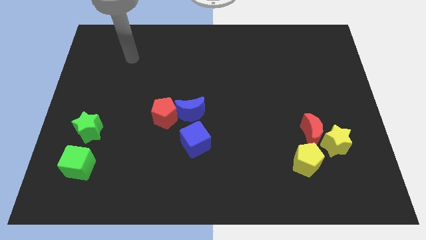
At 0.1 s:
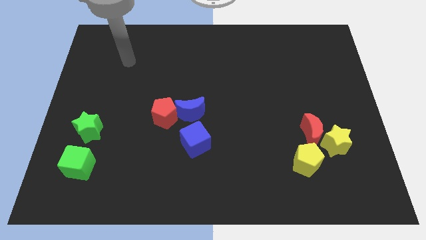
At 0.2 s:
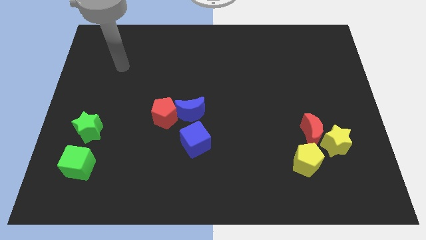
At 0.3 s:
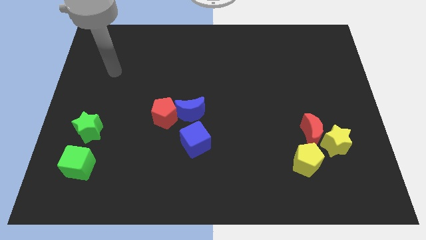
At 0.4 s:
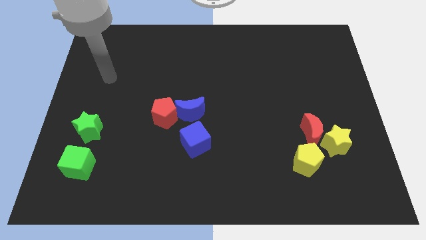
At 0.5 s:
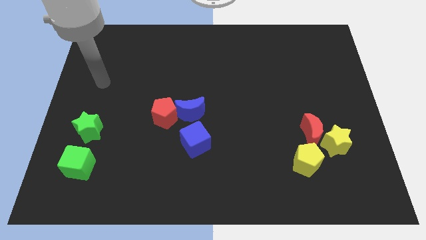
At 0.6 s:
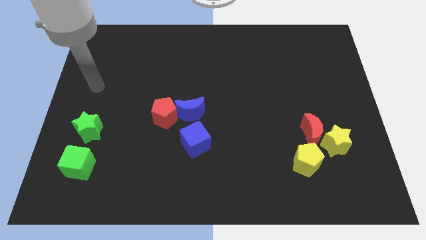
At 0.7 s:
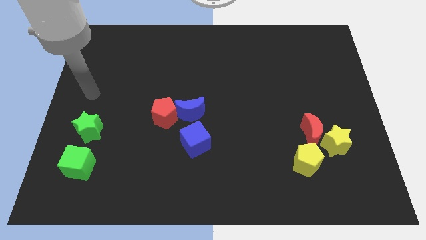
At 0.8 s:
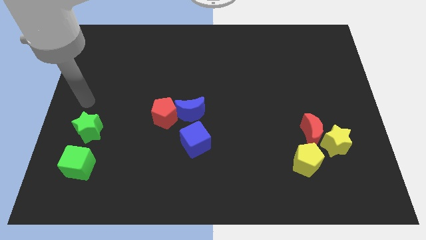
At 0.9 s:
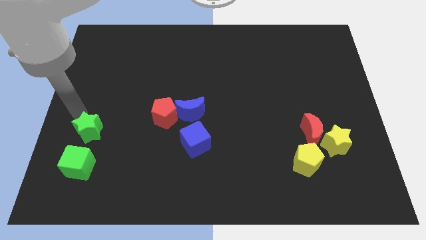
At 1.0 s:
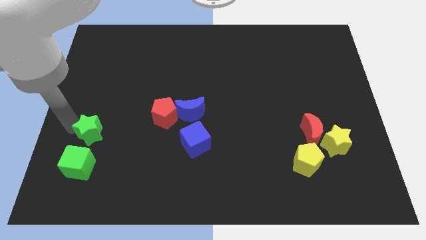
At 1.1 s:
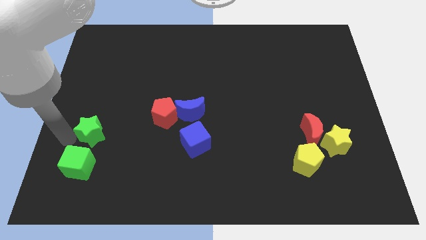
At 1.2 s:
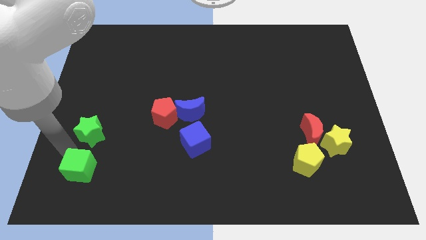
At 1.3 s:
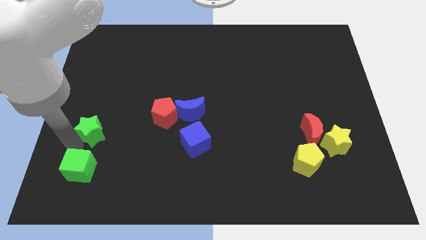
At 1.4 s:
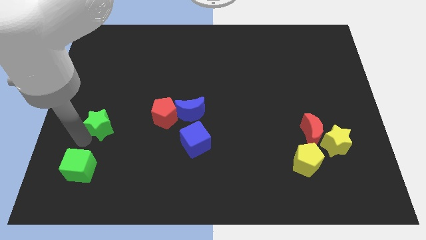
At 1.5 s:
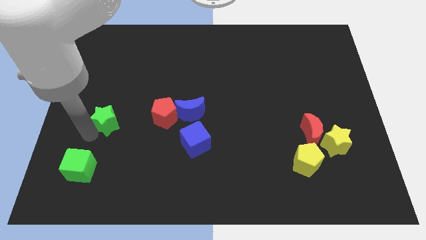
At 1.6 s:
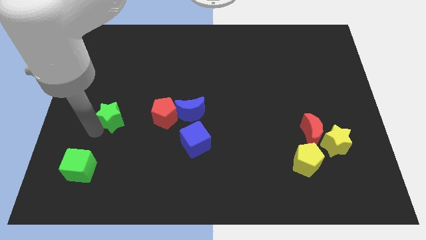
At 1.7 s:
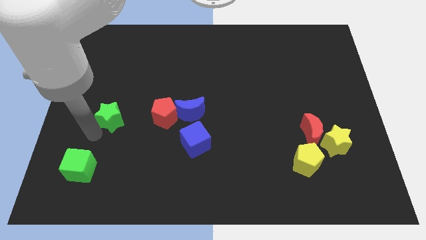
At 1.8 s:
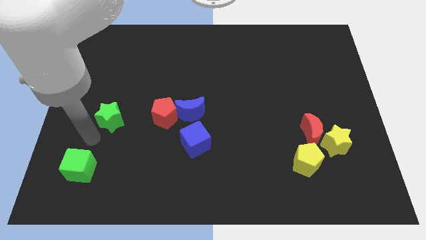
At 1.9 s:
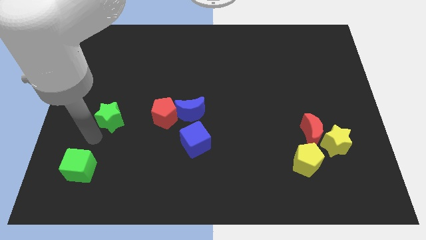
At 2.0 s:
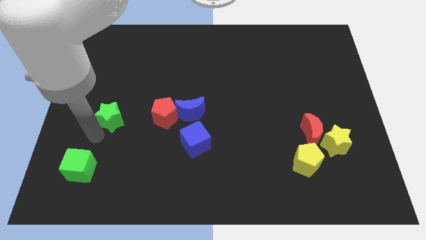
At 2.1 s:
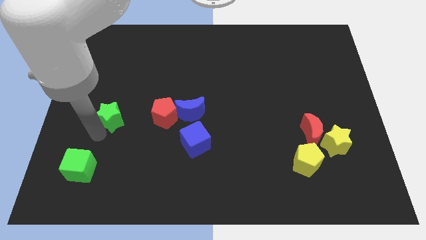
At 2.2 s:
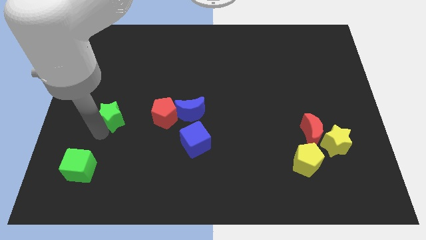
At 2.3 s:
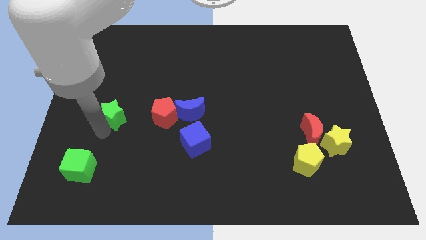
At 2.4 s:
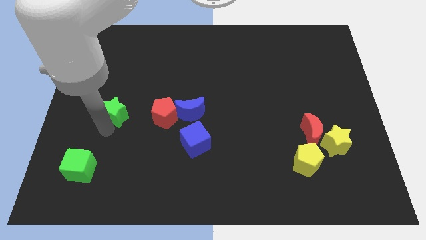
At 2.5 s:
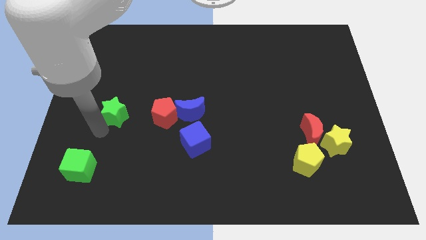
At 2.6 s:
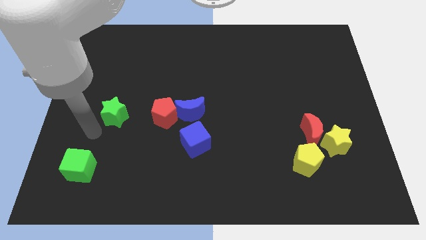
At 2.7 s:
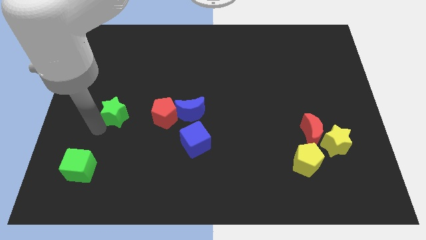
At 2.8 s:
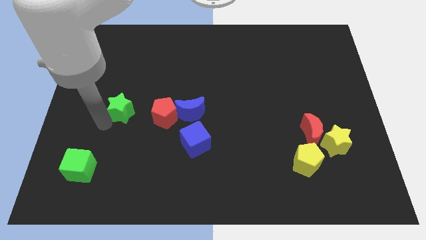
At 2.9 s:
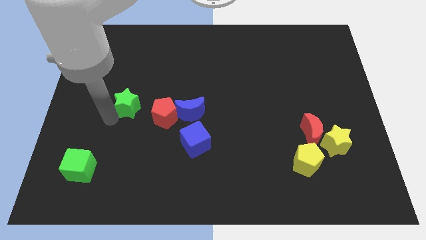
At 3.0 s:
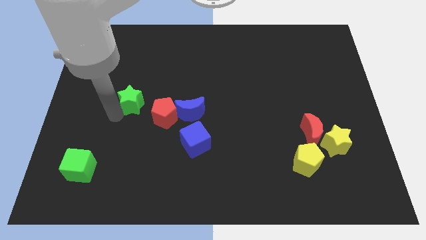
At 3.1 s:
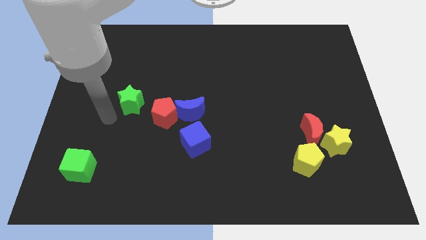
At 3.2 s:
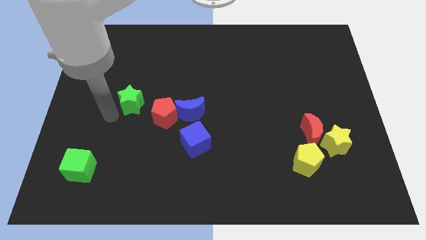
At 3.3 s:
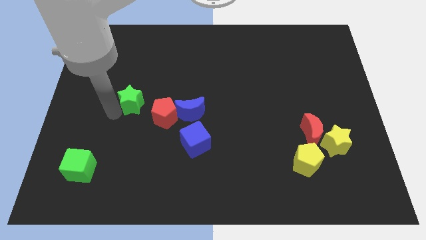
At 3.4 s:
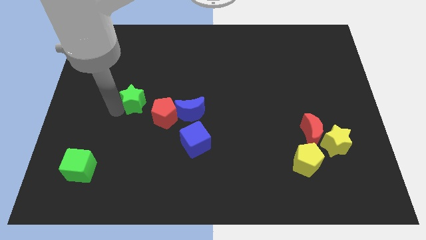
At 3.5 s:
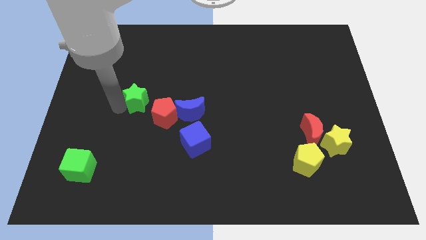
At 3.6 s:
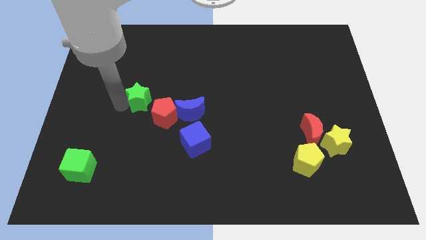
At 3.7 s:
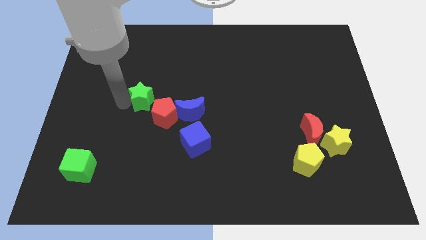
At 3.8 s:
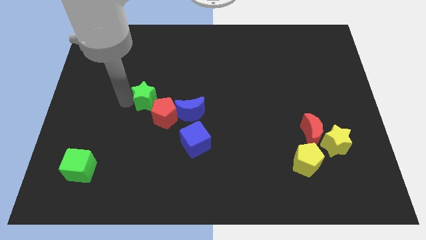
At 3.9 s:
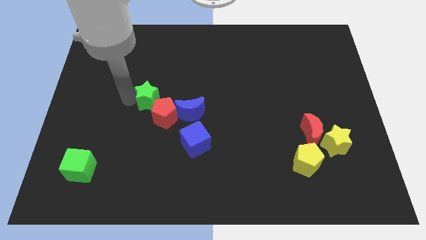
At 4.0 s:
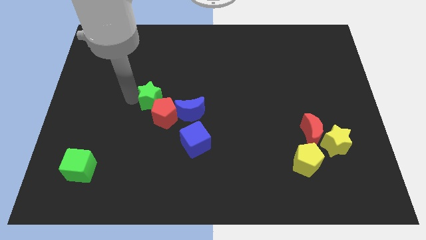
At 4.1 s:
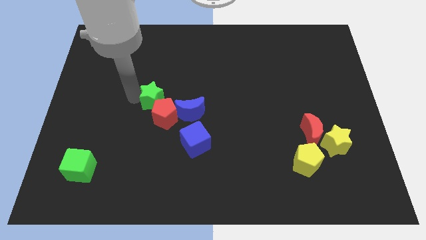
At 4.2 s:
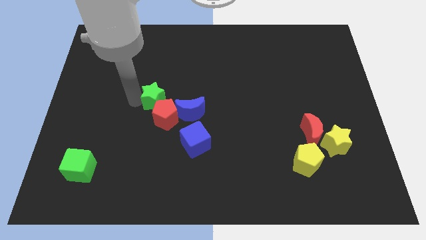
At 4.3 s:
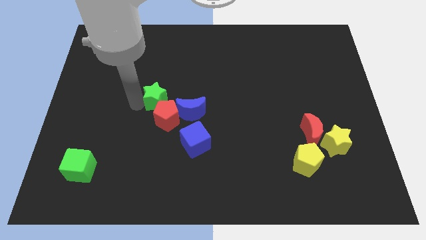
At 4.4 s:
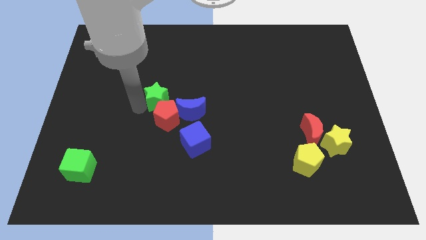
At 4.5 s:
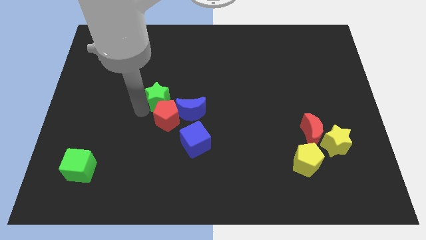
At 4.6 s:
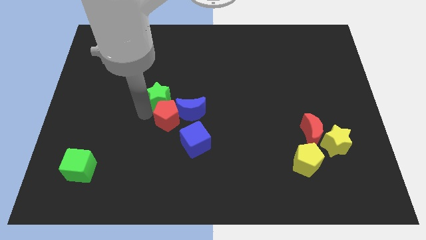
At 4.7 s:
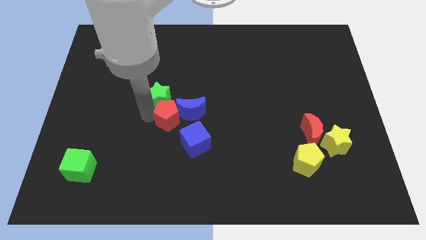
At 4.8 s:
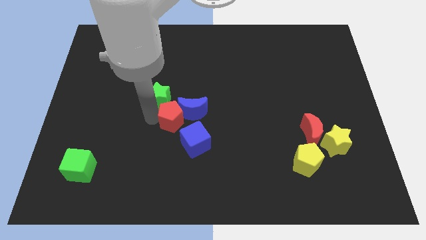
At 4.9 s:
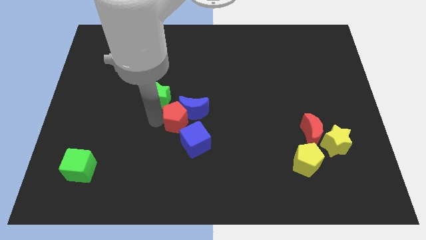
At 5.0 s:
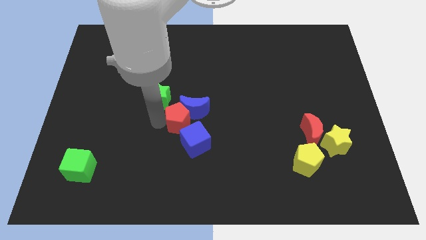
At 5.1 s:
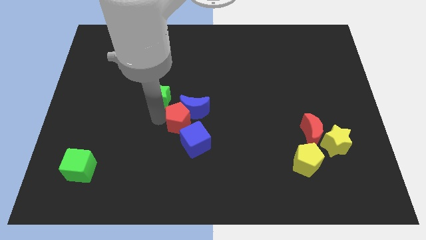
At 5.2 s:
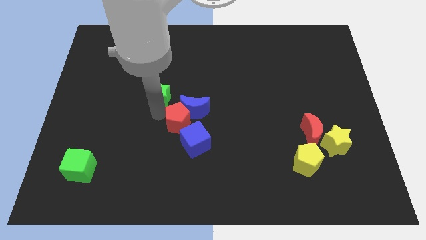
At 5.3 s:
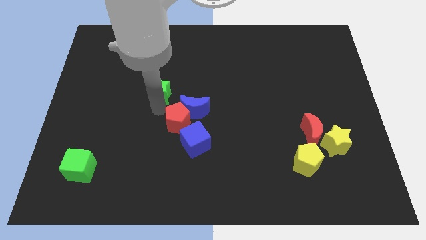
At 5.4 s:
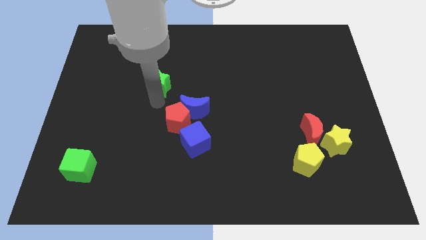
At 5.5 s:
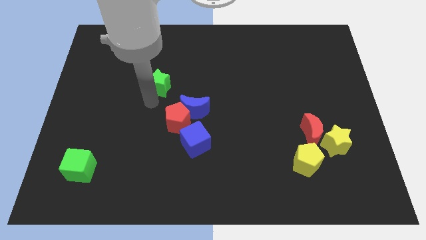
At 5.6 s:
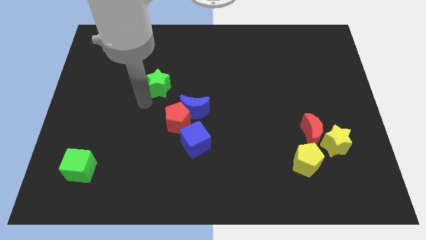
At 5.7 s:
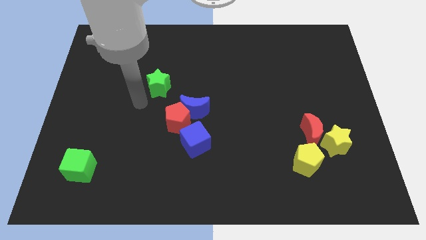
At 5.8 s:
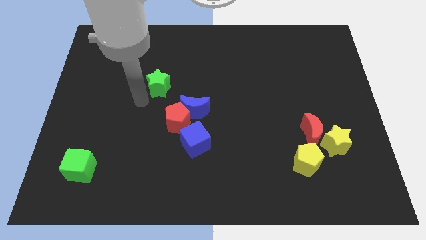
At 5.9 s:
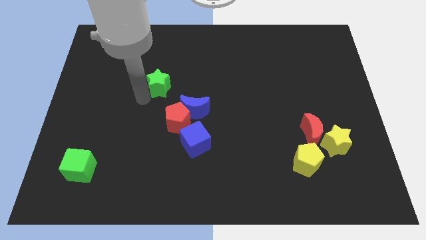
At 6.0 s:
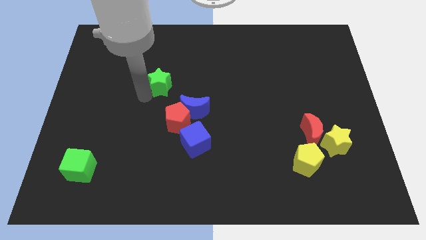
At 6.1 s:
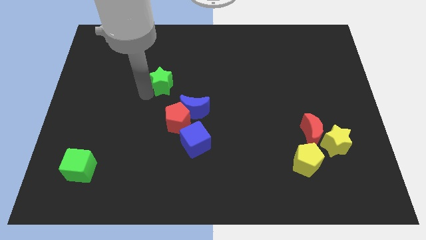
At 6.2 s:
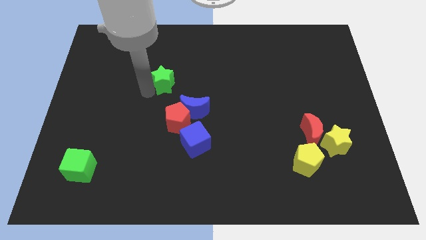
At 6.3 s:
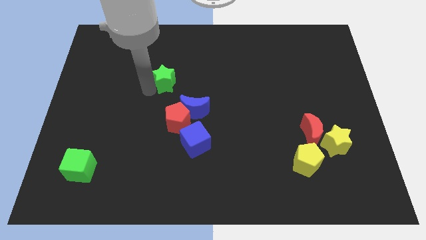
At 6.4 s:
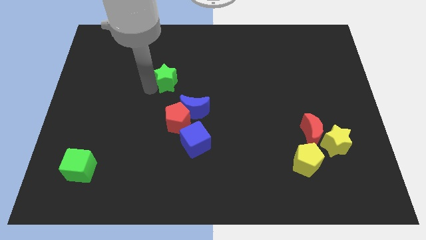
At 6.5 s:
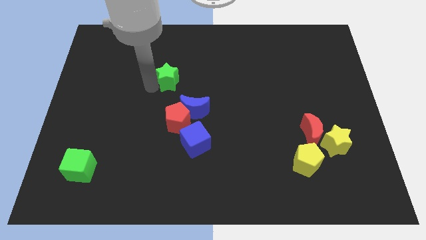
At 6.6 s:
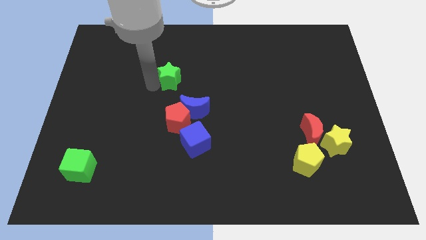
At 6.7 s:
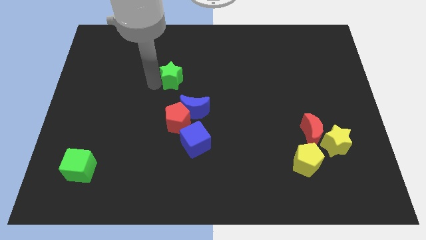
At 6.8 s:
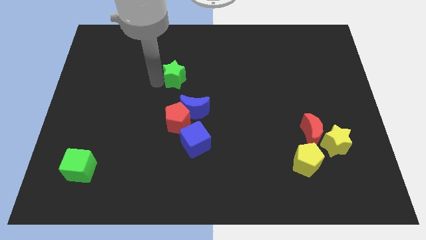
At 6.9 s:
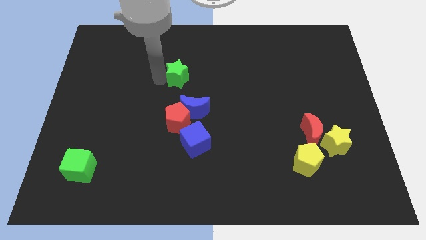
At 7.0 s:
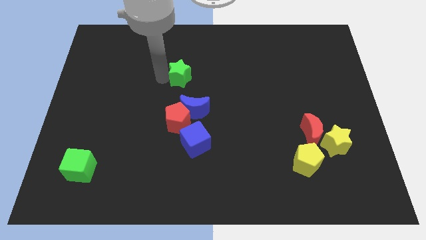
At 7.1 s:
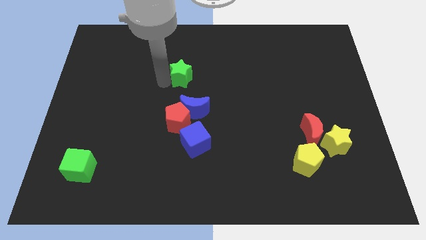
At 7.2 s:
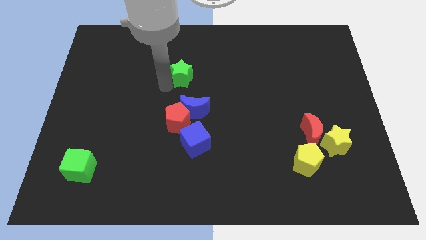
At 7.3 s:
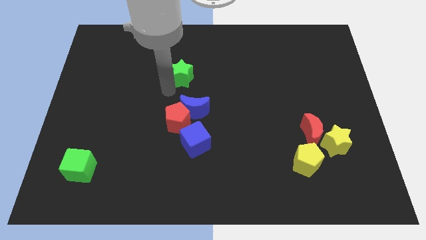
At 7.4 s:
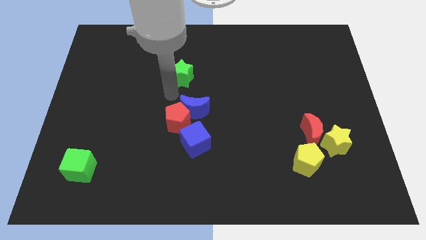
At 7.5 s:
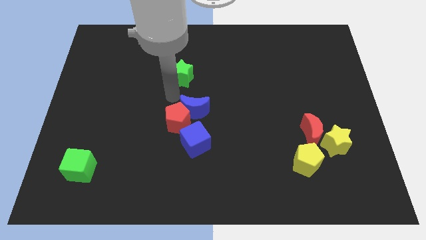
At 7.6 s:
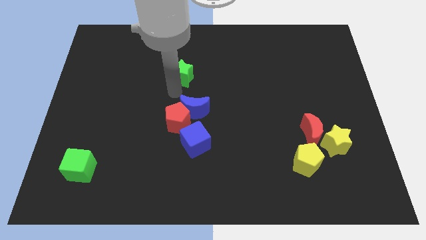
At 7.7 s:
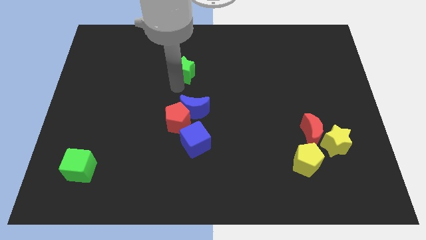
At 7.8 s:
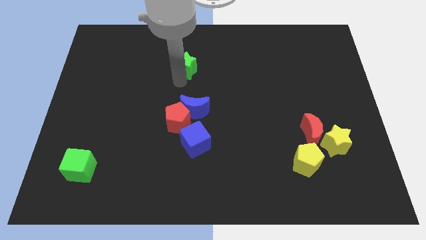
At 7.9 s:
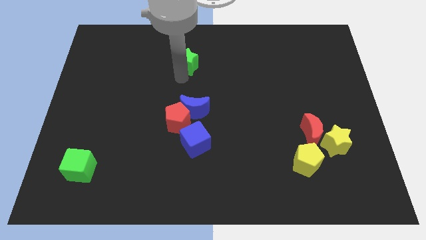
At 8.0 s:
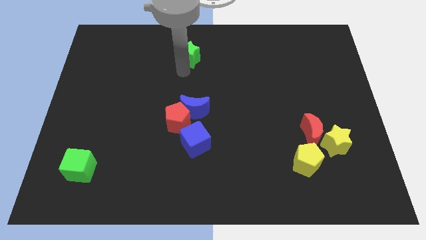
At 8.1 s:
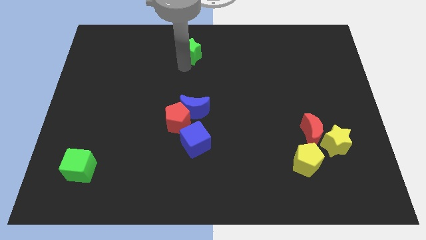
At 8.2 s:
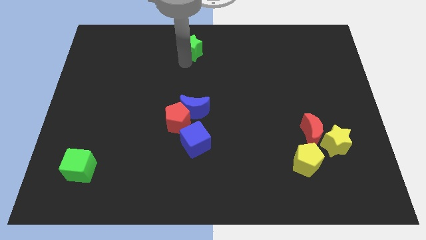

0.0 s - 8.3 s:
slide the green star to the top side
